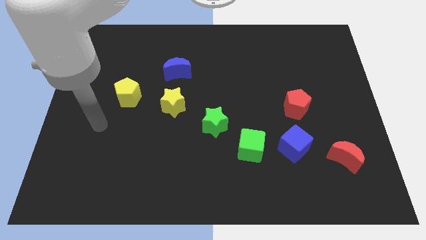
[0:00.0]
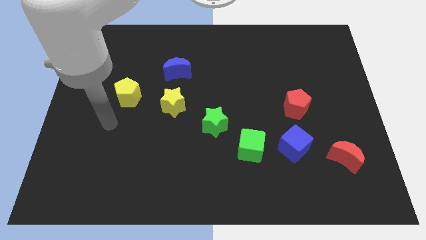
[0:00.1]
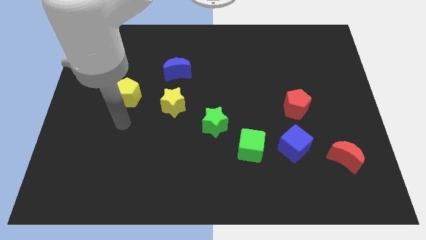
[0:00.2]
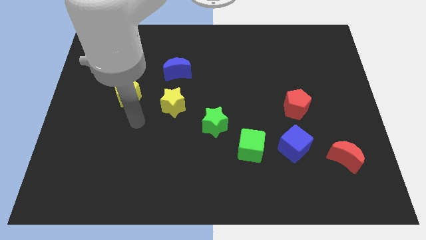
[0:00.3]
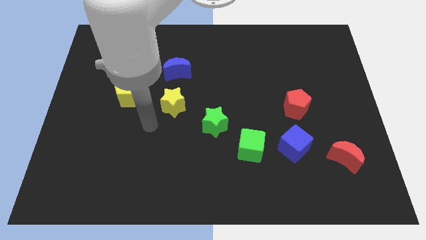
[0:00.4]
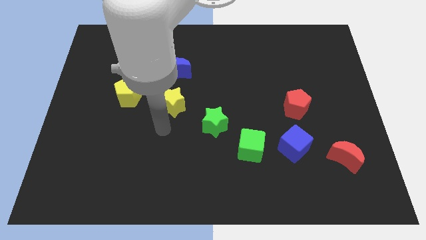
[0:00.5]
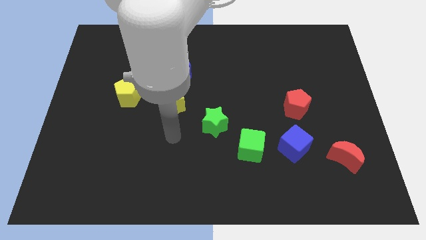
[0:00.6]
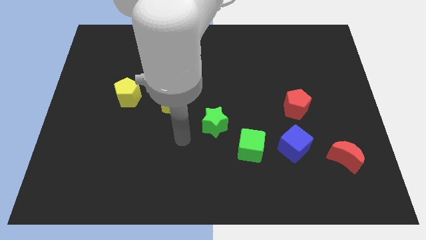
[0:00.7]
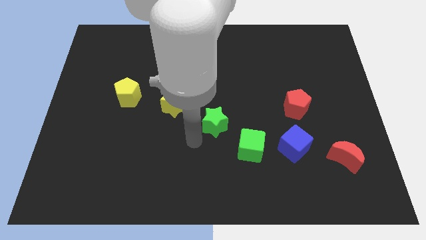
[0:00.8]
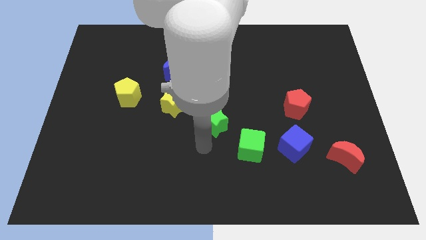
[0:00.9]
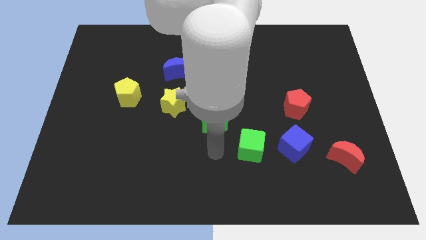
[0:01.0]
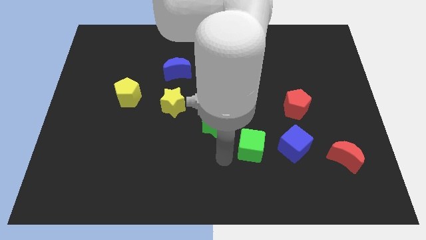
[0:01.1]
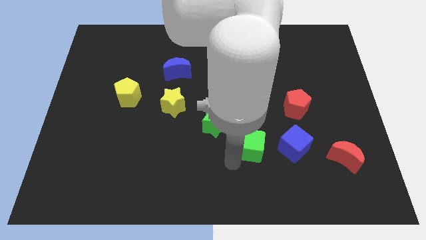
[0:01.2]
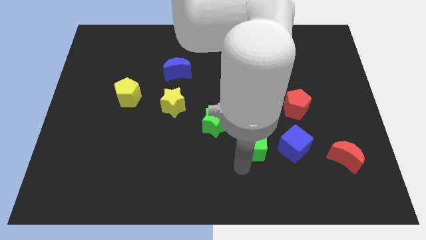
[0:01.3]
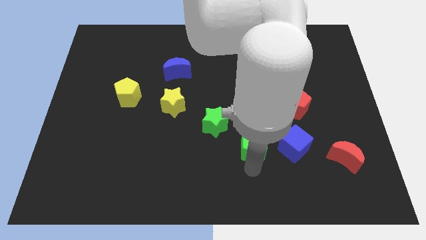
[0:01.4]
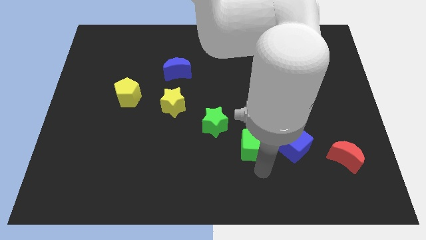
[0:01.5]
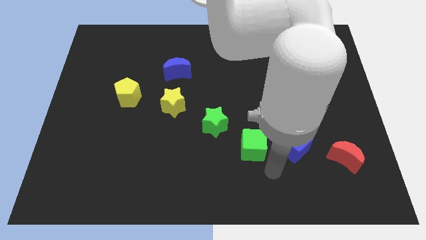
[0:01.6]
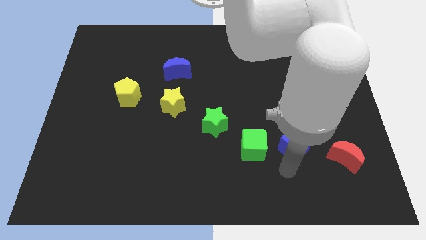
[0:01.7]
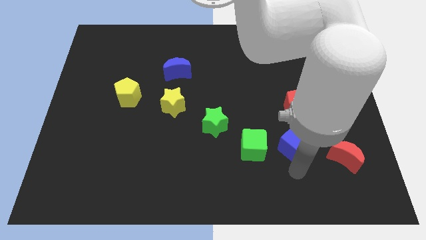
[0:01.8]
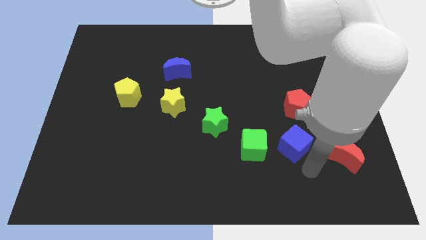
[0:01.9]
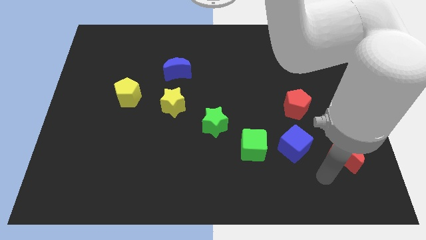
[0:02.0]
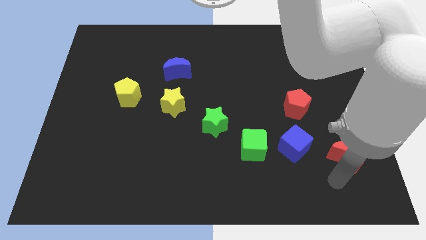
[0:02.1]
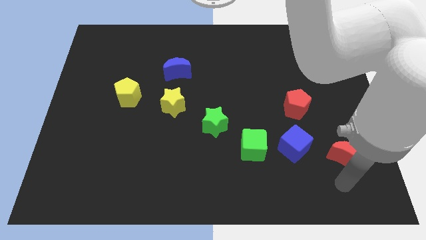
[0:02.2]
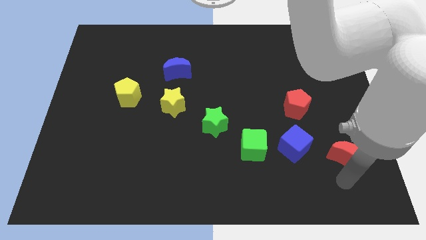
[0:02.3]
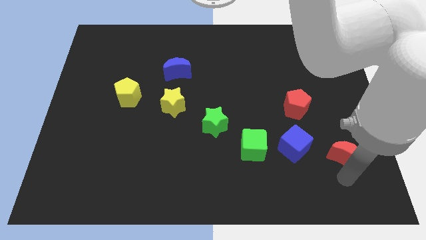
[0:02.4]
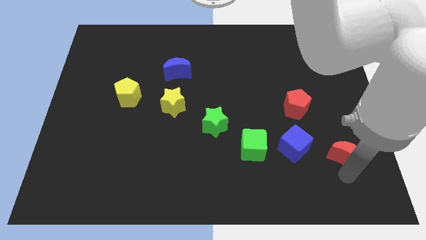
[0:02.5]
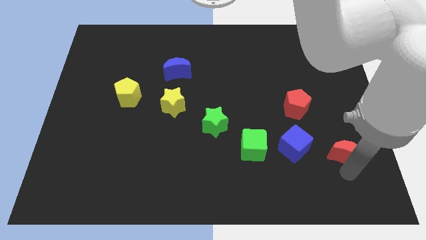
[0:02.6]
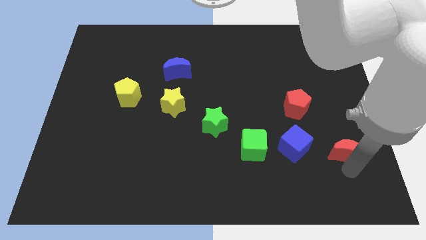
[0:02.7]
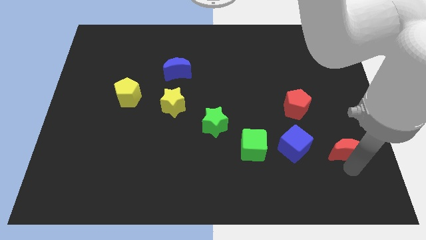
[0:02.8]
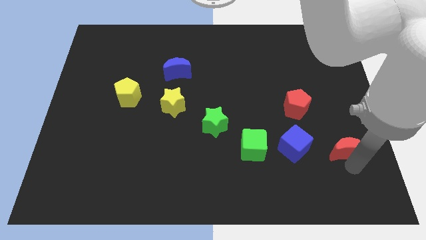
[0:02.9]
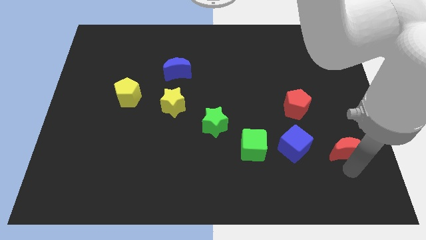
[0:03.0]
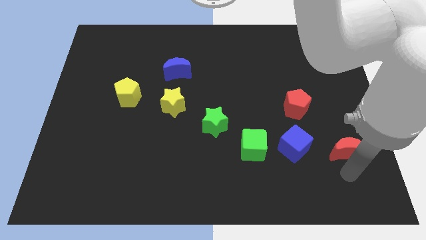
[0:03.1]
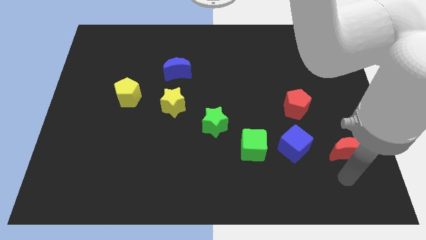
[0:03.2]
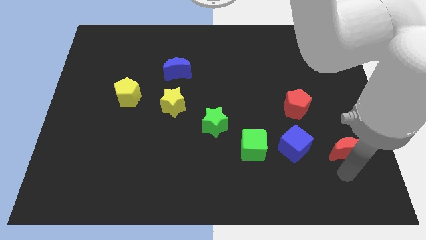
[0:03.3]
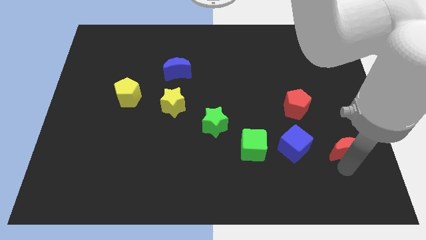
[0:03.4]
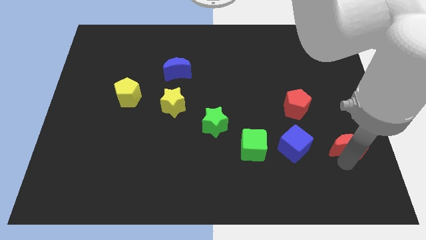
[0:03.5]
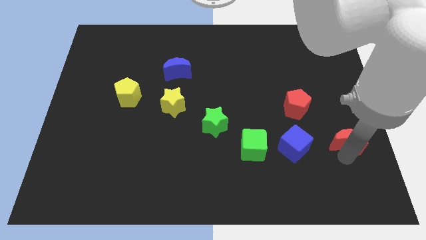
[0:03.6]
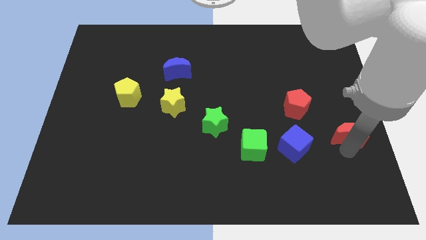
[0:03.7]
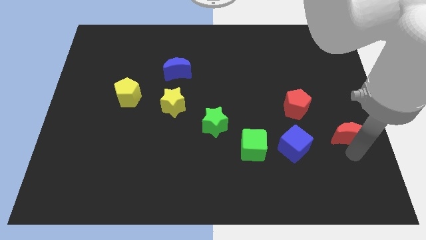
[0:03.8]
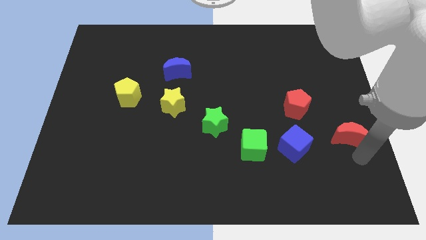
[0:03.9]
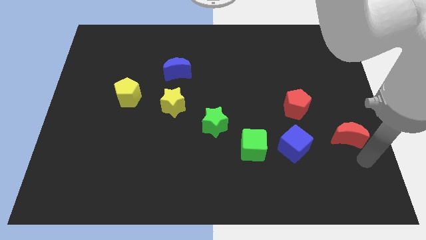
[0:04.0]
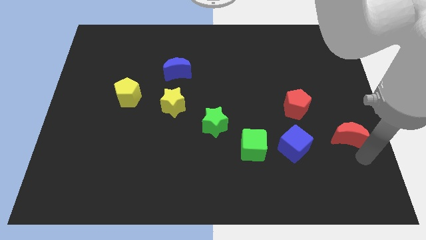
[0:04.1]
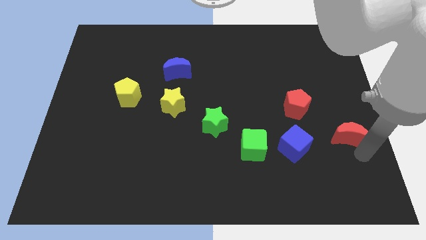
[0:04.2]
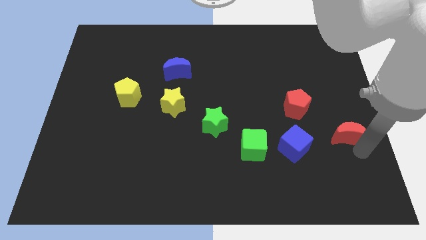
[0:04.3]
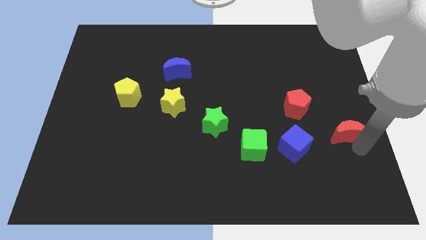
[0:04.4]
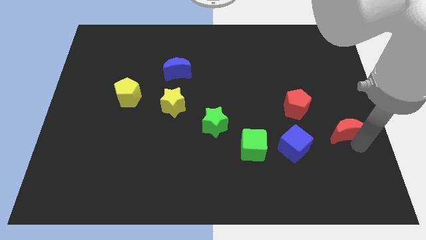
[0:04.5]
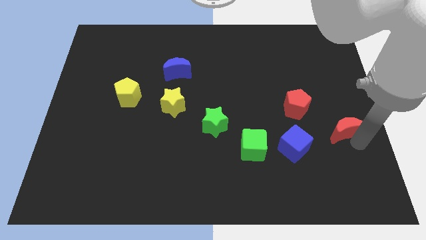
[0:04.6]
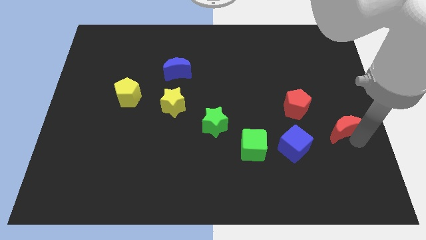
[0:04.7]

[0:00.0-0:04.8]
slightly move the red moon up

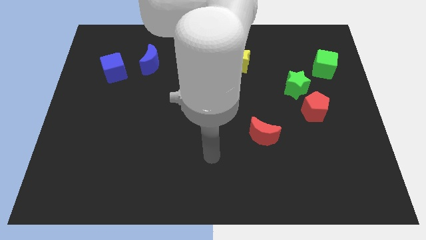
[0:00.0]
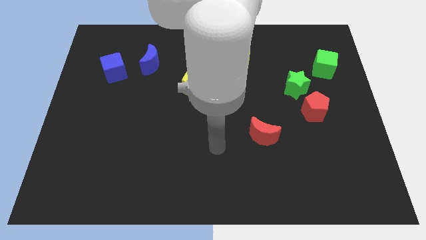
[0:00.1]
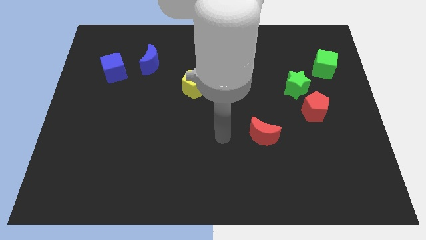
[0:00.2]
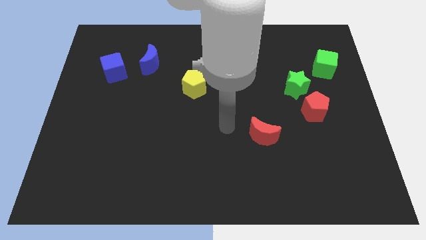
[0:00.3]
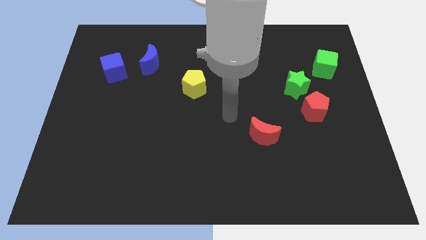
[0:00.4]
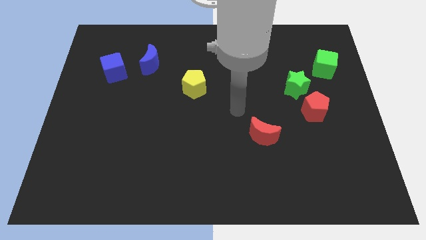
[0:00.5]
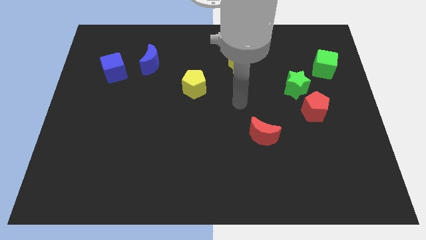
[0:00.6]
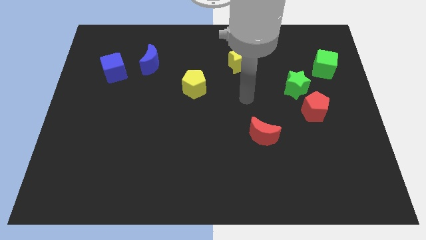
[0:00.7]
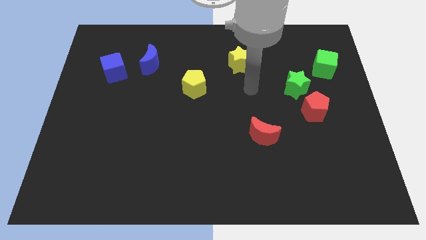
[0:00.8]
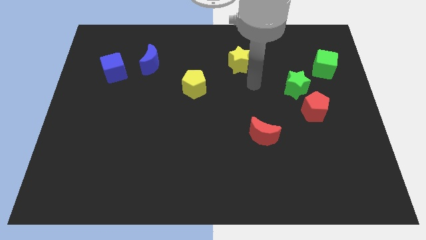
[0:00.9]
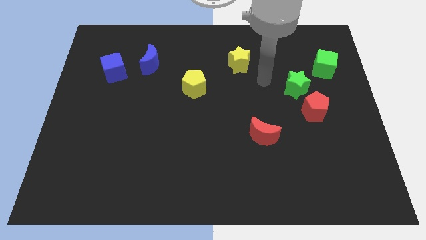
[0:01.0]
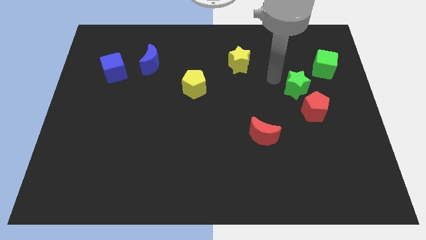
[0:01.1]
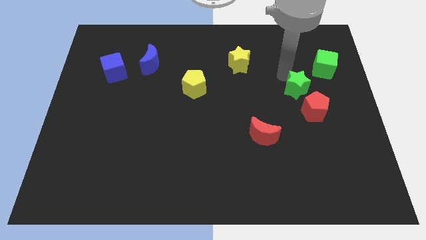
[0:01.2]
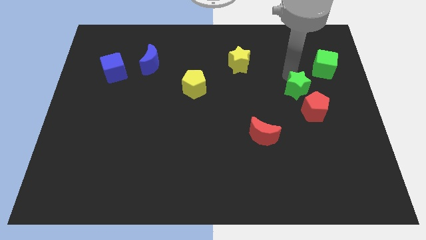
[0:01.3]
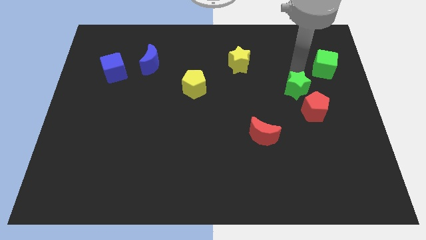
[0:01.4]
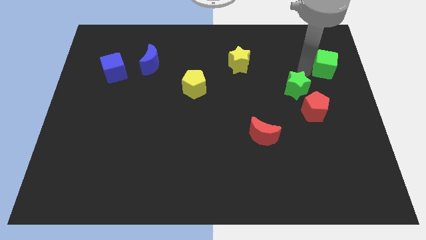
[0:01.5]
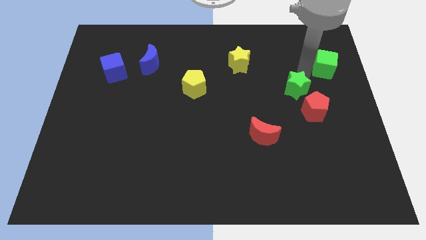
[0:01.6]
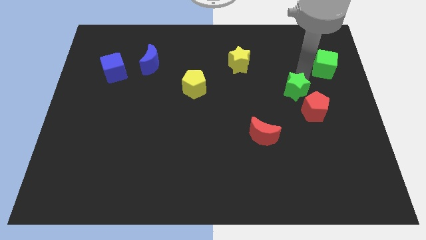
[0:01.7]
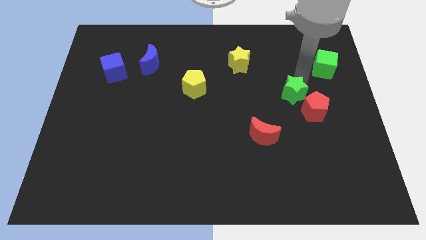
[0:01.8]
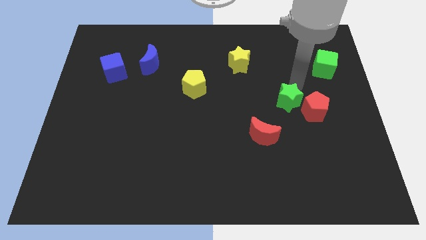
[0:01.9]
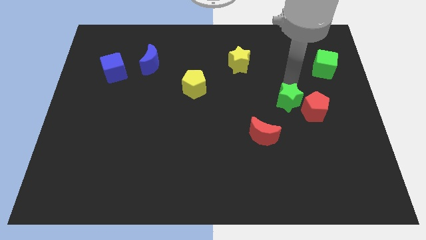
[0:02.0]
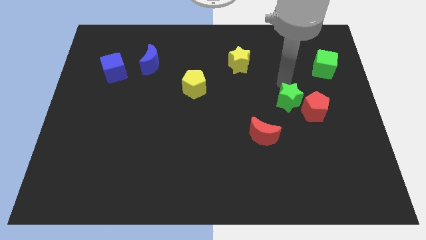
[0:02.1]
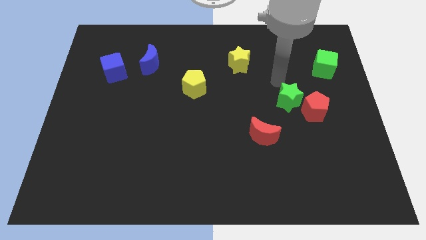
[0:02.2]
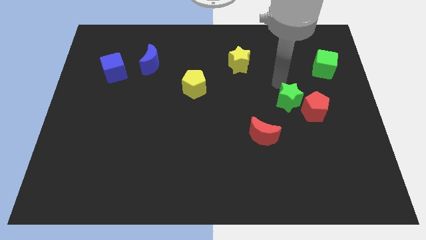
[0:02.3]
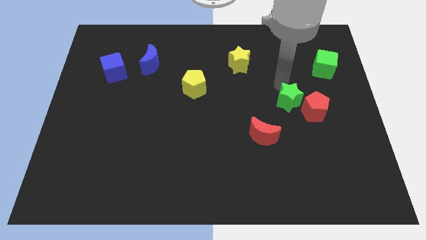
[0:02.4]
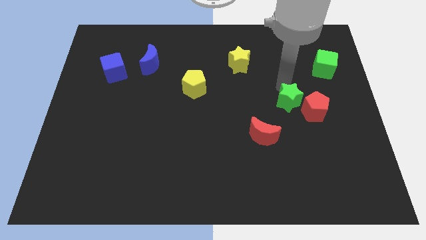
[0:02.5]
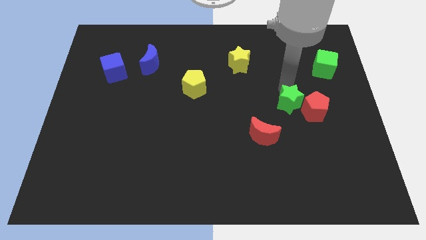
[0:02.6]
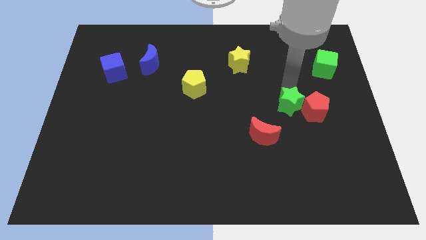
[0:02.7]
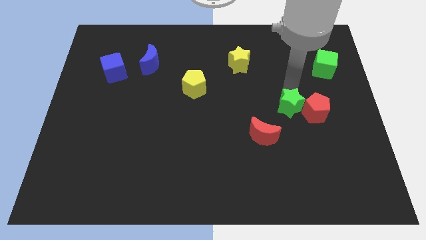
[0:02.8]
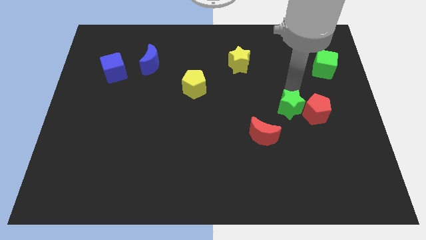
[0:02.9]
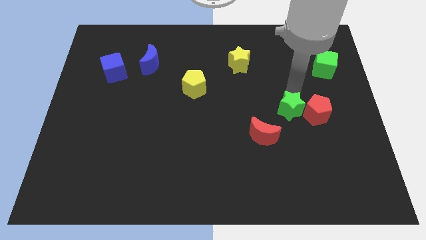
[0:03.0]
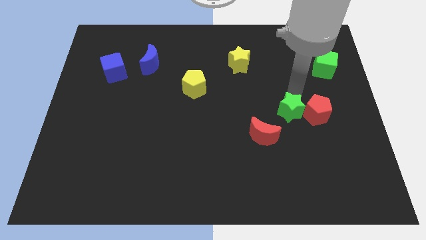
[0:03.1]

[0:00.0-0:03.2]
move the green star down somewhat
